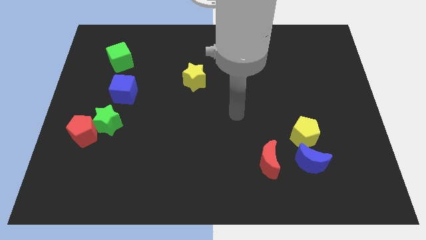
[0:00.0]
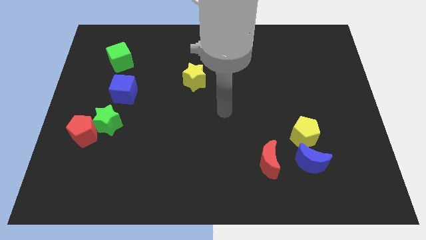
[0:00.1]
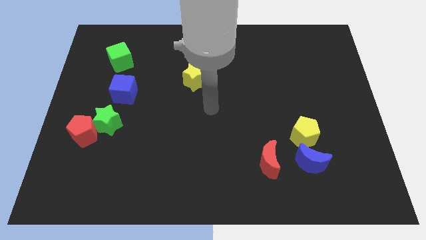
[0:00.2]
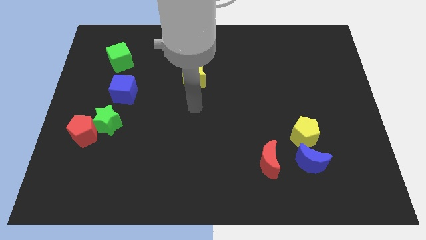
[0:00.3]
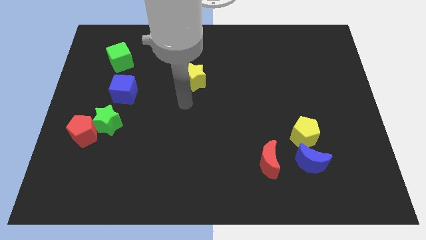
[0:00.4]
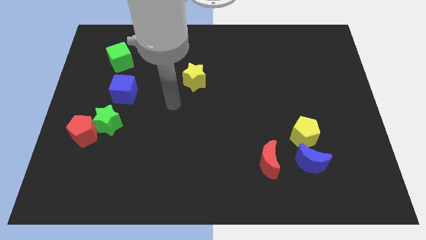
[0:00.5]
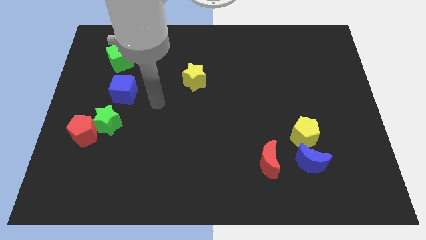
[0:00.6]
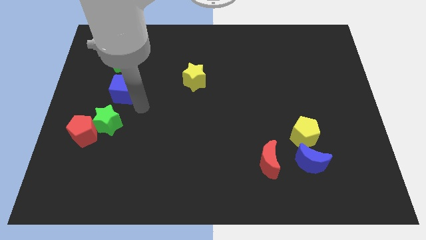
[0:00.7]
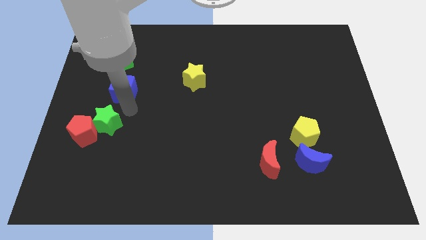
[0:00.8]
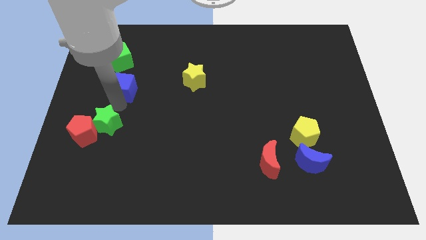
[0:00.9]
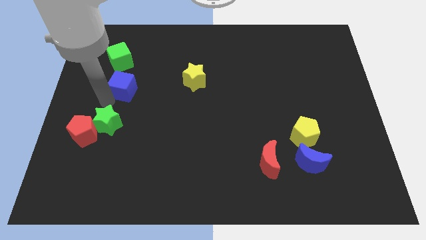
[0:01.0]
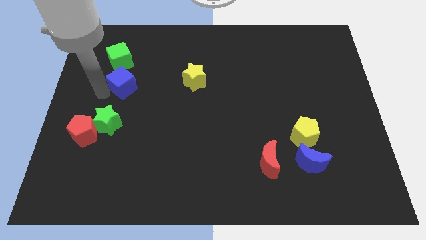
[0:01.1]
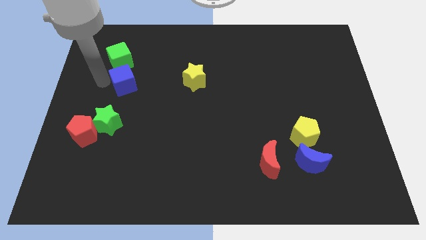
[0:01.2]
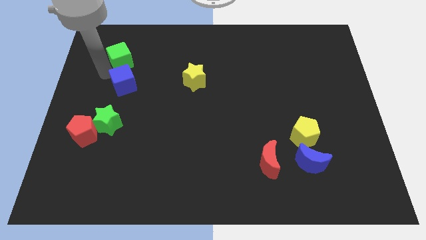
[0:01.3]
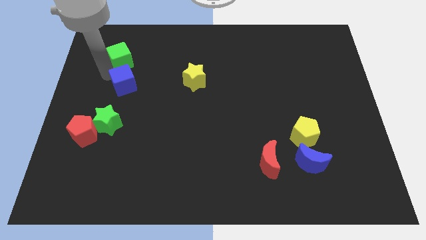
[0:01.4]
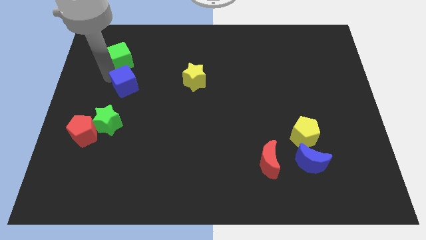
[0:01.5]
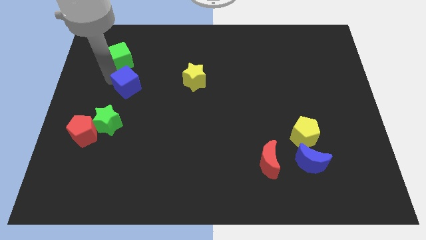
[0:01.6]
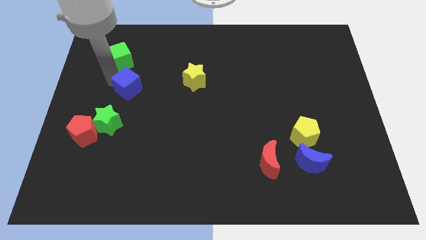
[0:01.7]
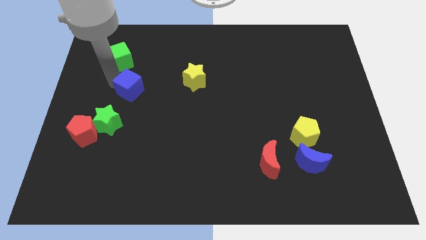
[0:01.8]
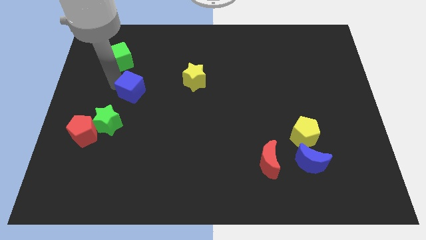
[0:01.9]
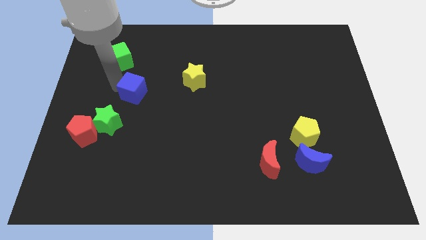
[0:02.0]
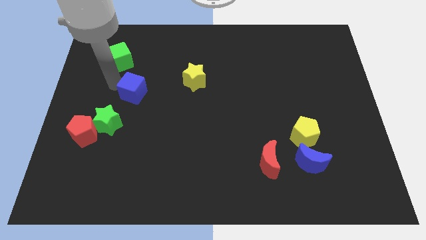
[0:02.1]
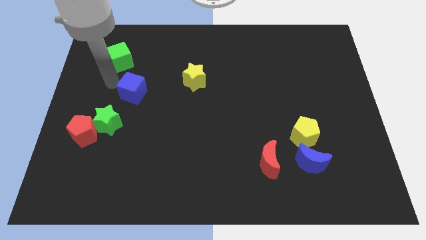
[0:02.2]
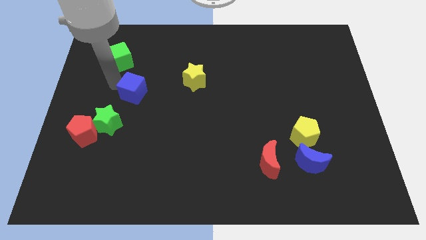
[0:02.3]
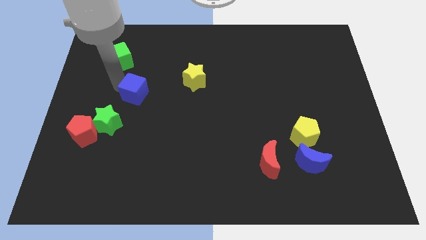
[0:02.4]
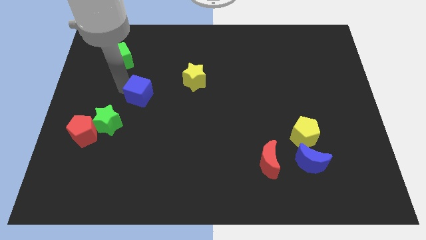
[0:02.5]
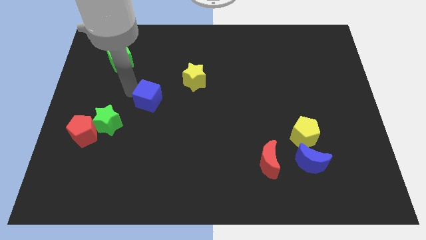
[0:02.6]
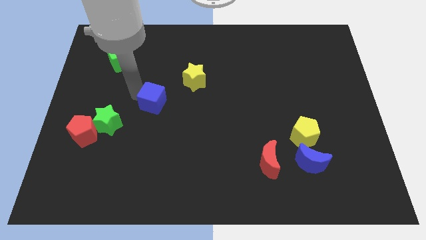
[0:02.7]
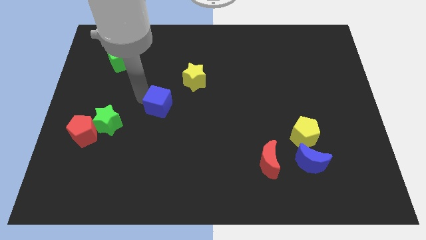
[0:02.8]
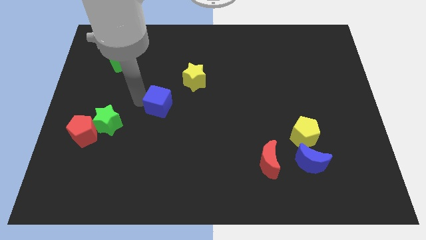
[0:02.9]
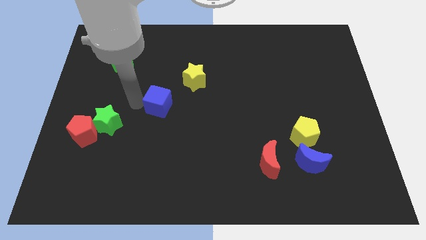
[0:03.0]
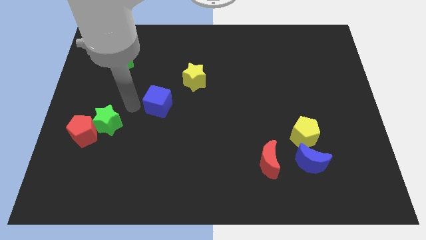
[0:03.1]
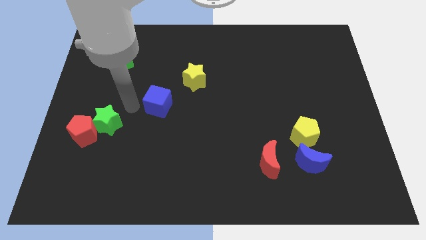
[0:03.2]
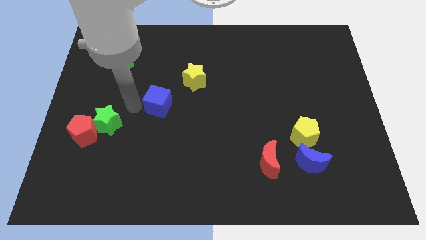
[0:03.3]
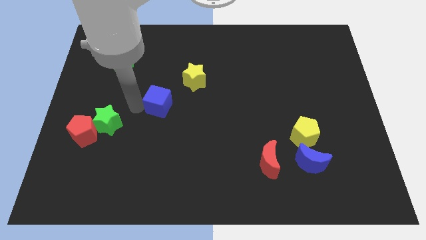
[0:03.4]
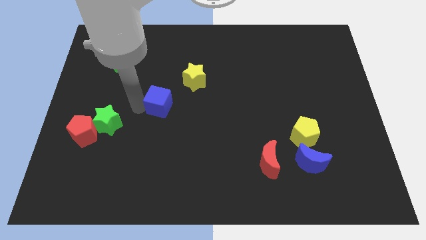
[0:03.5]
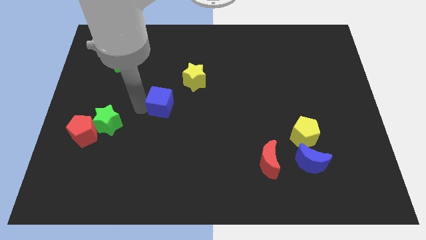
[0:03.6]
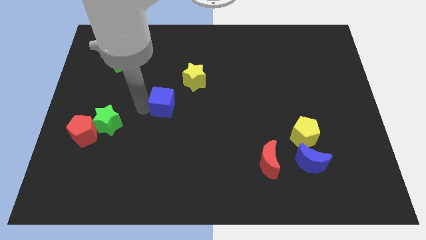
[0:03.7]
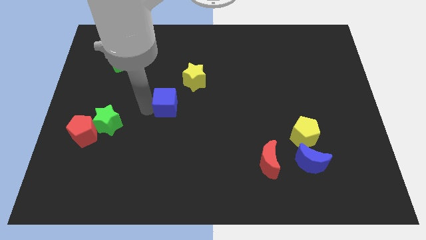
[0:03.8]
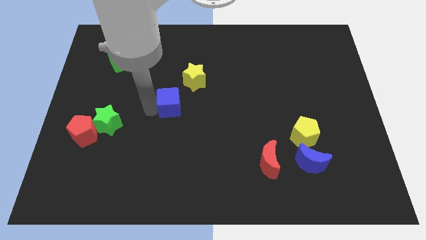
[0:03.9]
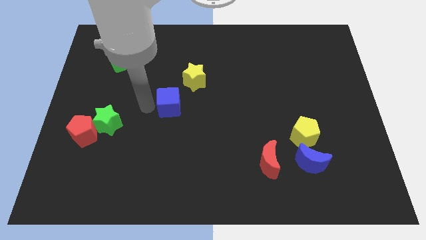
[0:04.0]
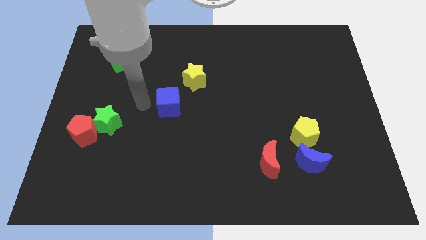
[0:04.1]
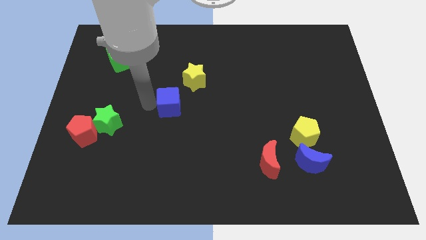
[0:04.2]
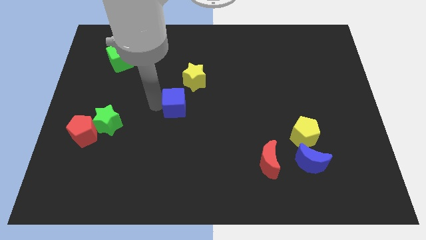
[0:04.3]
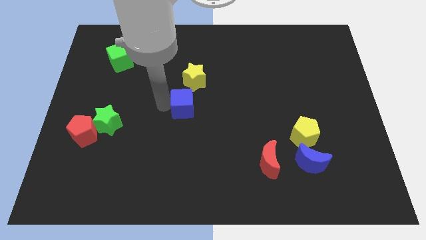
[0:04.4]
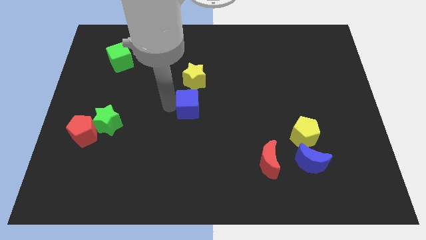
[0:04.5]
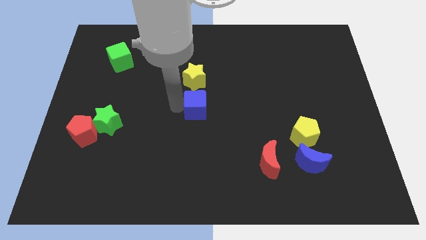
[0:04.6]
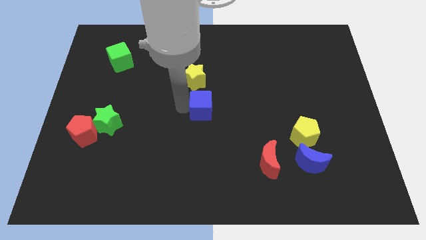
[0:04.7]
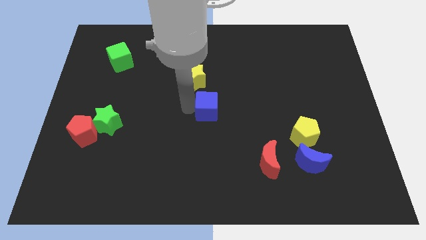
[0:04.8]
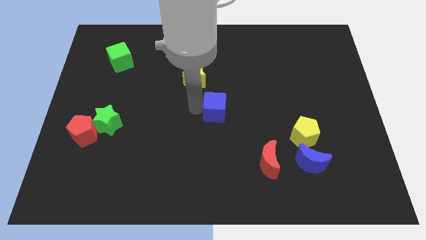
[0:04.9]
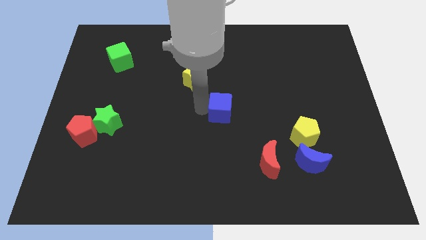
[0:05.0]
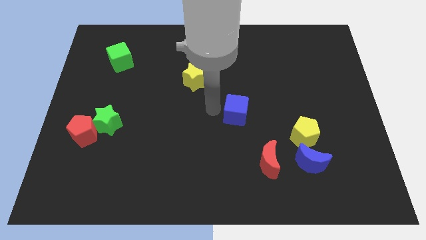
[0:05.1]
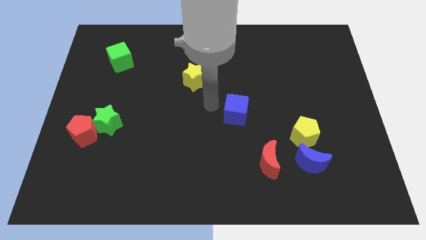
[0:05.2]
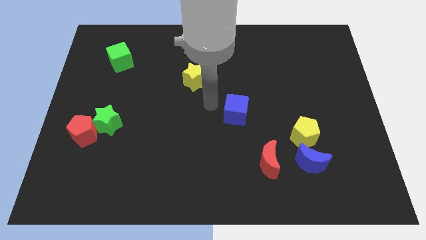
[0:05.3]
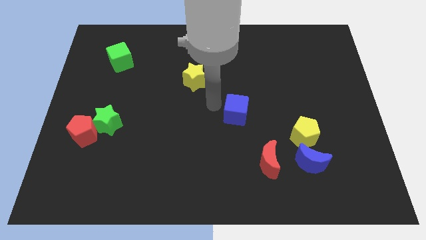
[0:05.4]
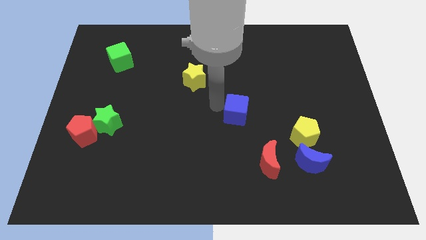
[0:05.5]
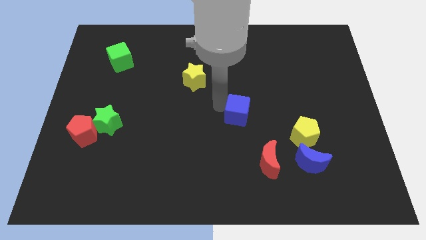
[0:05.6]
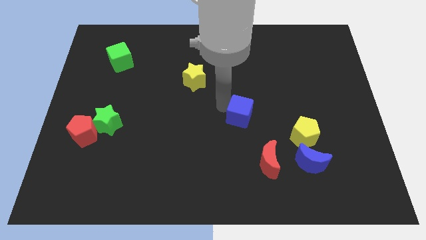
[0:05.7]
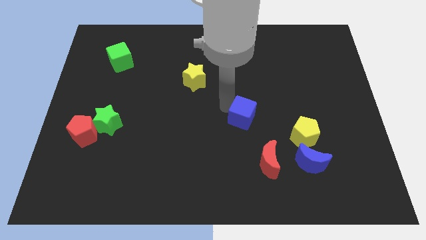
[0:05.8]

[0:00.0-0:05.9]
push the blue cube to the top of the red moon

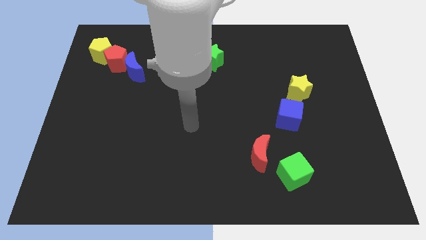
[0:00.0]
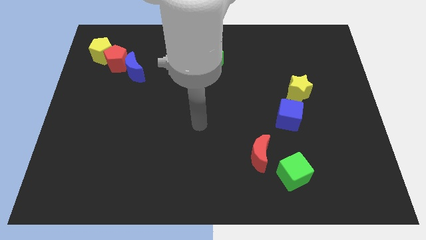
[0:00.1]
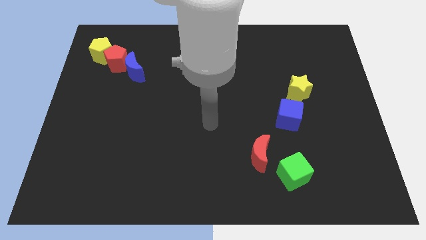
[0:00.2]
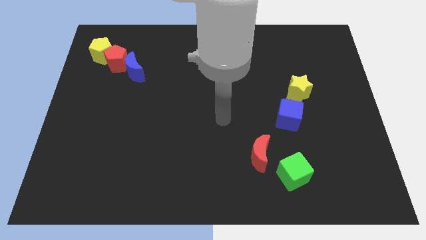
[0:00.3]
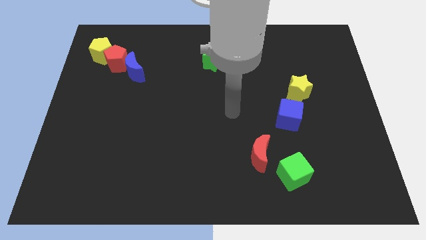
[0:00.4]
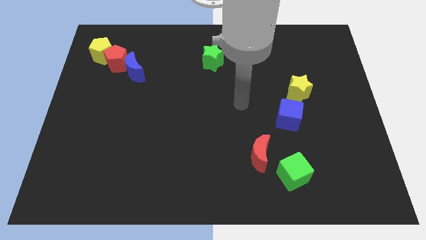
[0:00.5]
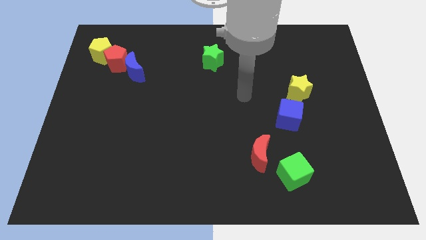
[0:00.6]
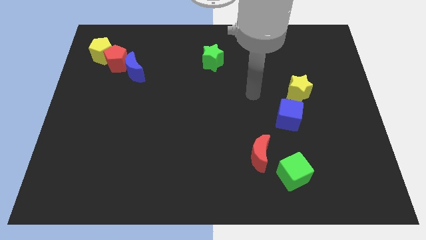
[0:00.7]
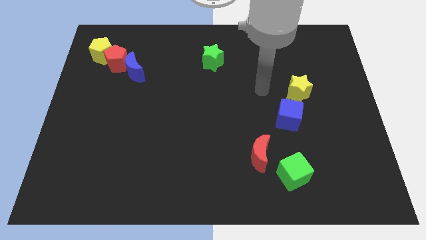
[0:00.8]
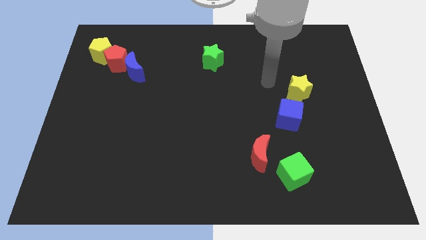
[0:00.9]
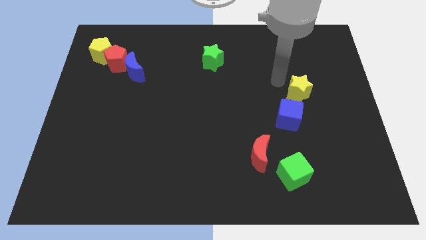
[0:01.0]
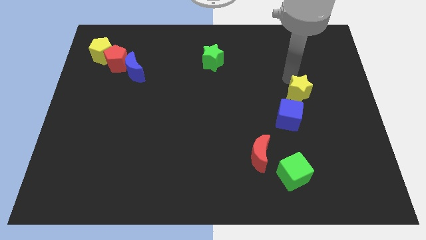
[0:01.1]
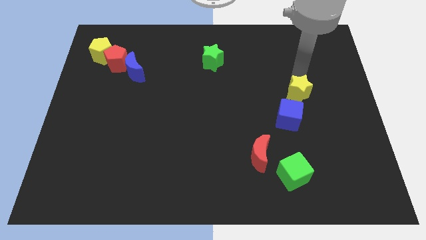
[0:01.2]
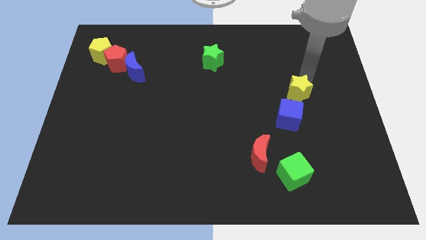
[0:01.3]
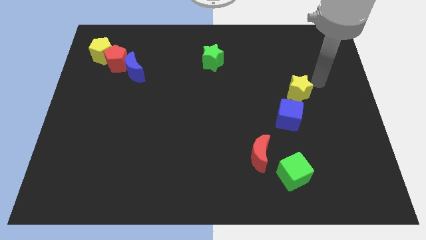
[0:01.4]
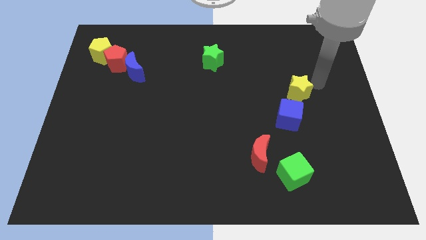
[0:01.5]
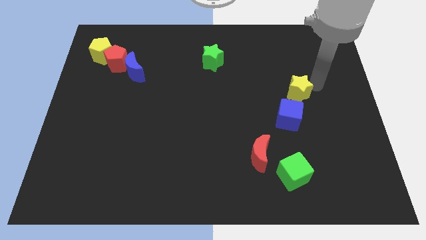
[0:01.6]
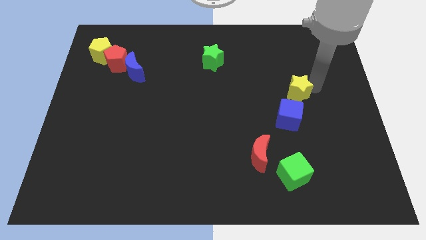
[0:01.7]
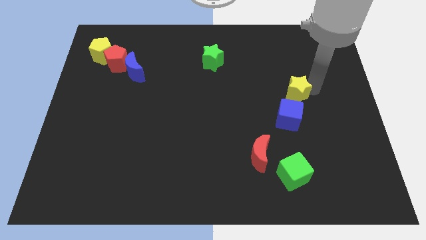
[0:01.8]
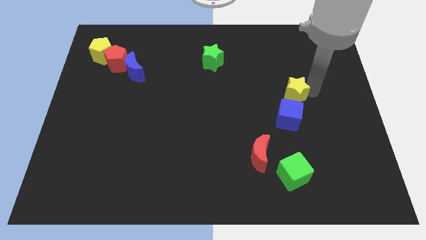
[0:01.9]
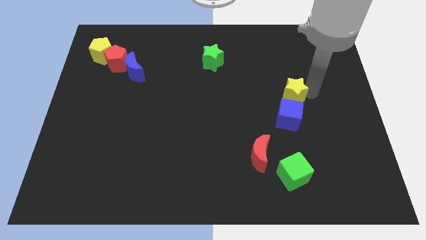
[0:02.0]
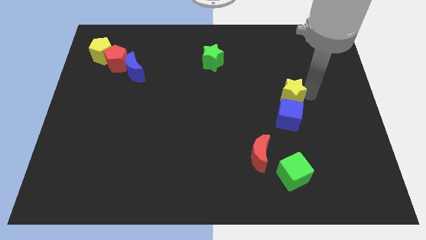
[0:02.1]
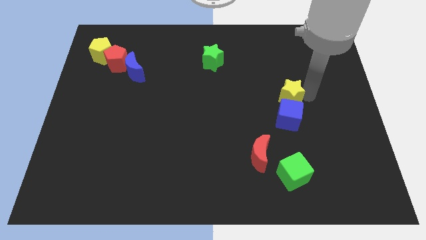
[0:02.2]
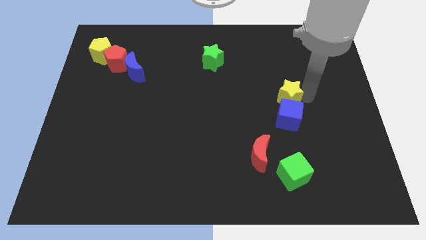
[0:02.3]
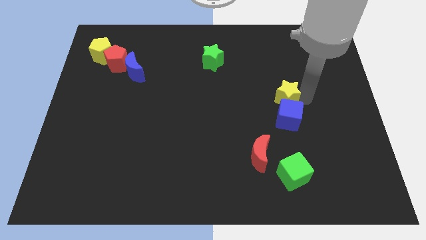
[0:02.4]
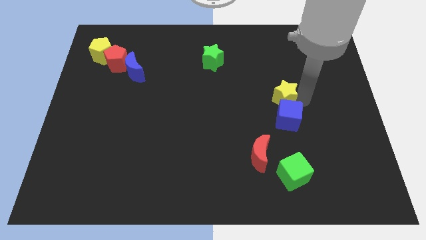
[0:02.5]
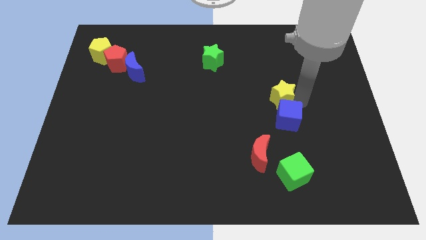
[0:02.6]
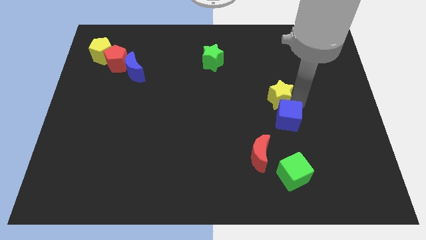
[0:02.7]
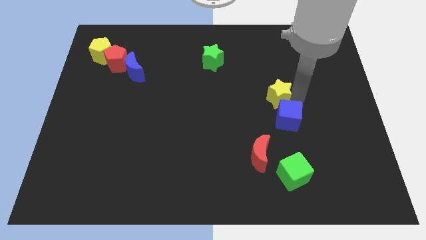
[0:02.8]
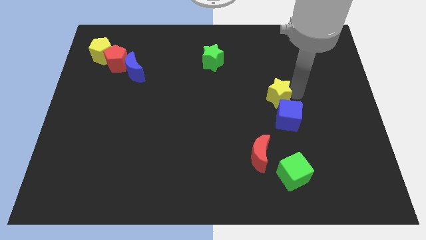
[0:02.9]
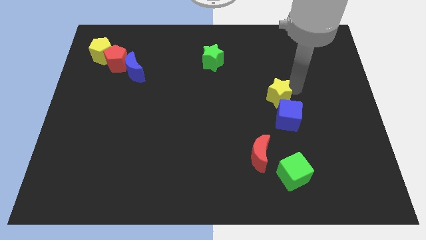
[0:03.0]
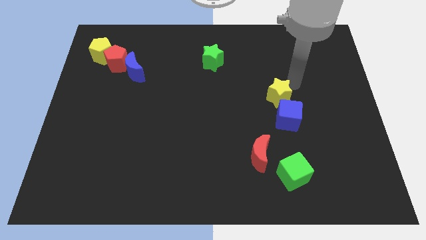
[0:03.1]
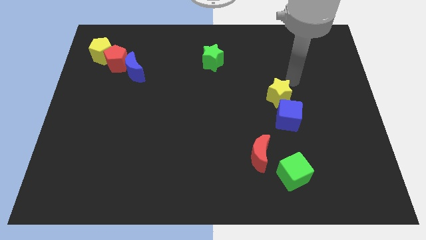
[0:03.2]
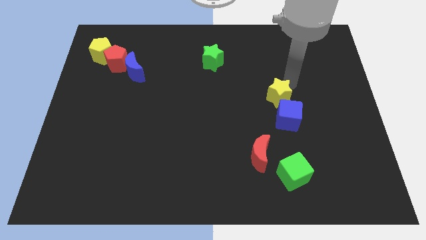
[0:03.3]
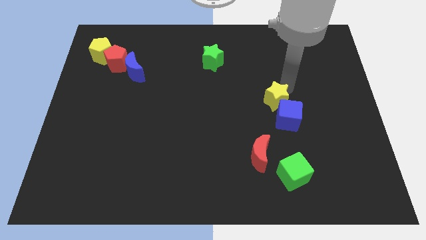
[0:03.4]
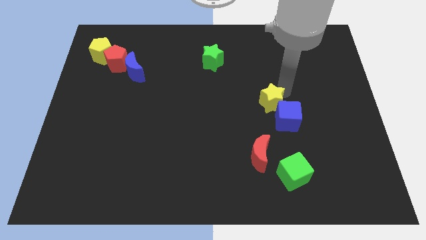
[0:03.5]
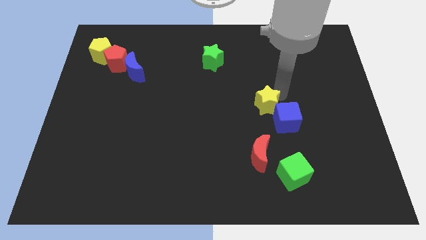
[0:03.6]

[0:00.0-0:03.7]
put the yellow star just left of the blue cube
